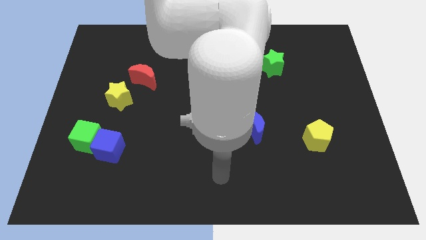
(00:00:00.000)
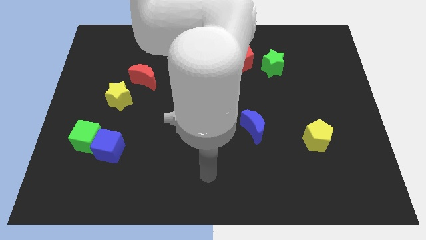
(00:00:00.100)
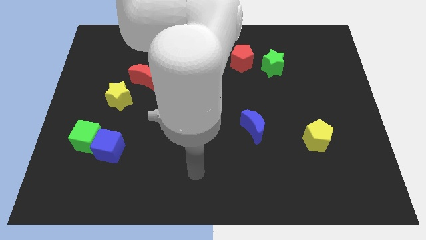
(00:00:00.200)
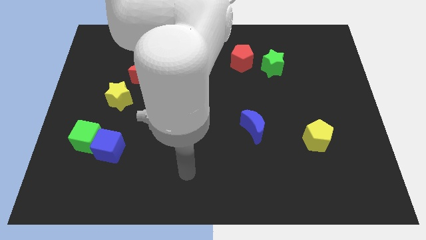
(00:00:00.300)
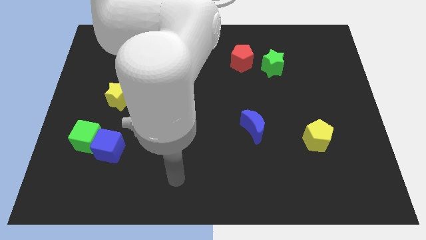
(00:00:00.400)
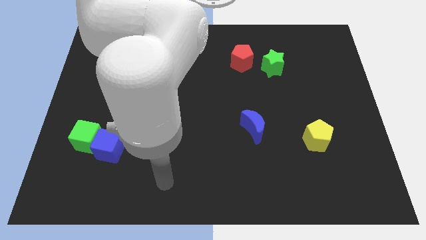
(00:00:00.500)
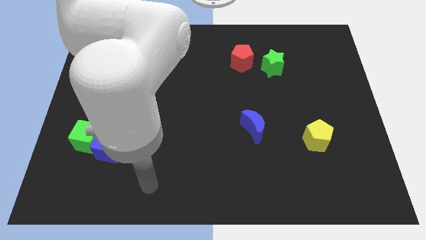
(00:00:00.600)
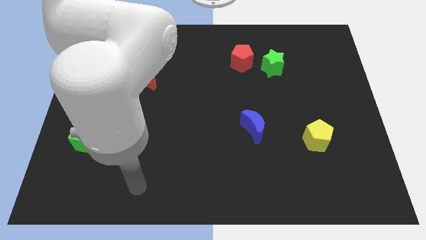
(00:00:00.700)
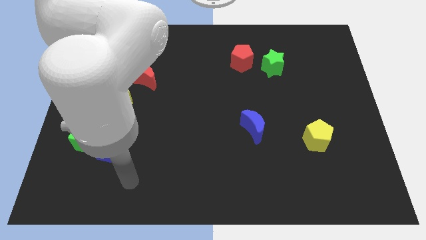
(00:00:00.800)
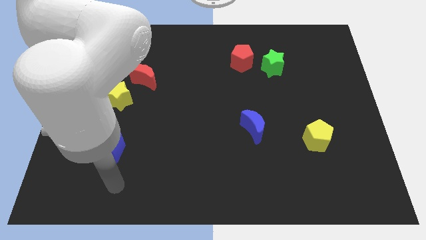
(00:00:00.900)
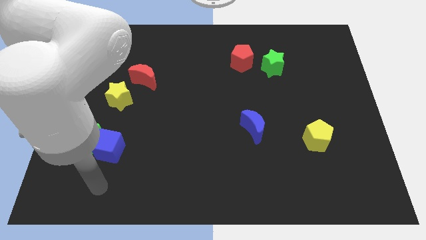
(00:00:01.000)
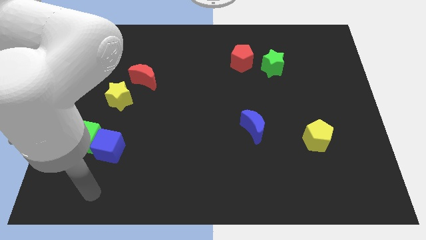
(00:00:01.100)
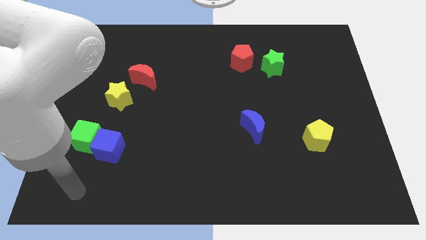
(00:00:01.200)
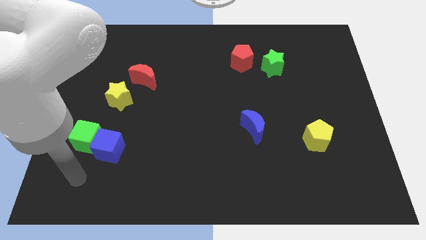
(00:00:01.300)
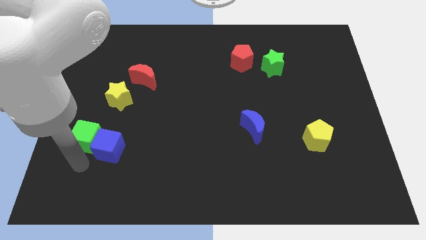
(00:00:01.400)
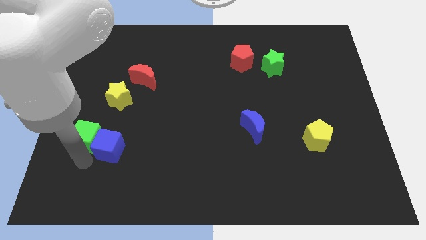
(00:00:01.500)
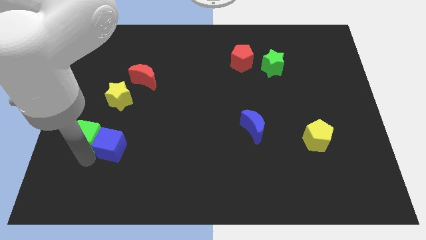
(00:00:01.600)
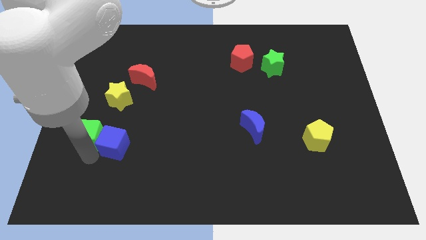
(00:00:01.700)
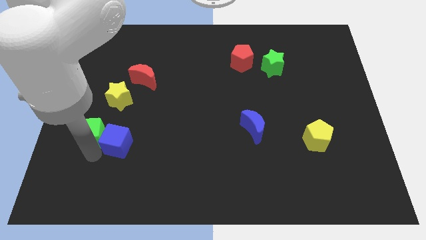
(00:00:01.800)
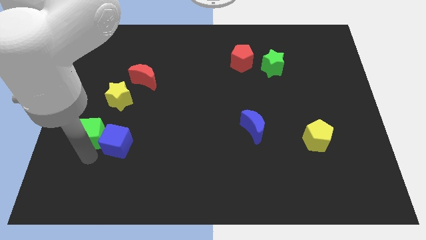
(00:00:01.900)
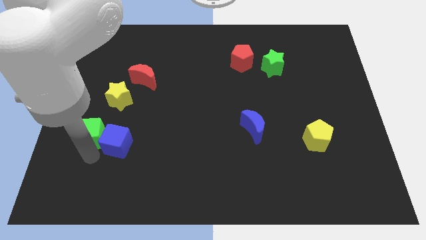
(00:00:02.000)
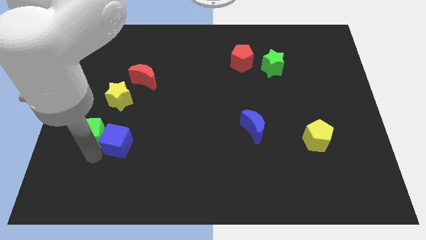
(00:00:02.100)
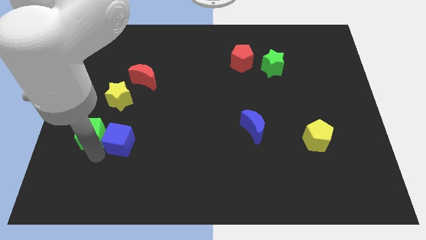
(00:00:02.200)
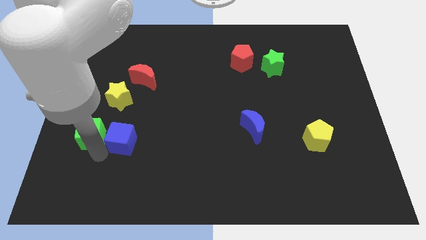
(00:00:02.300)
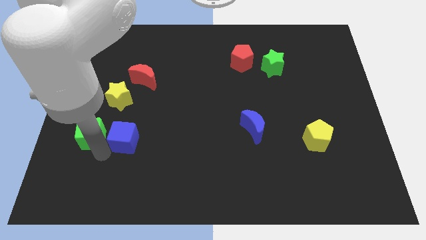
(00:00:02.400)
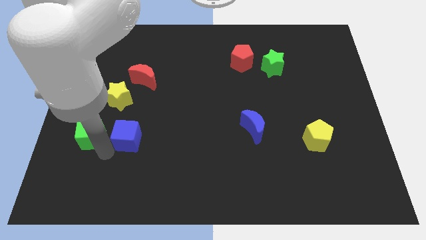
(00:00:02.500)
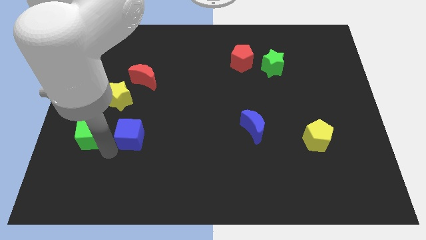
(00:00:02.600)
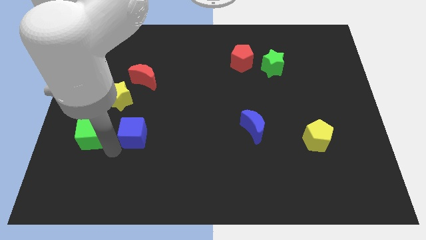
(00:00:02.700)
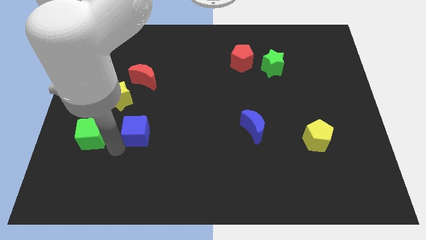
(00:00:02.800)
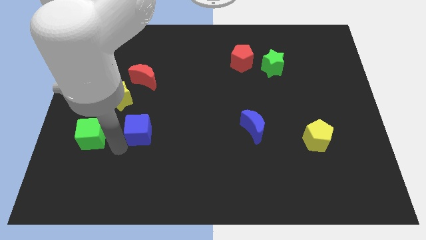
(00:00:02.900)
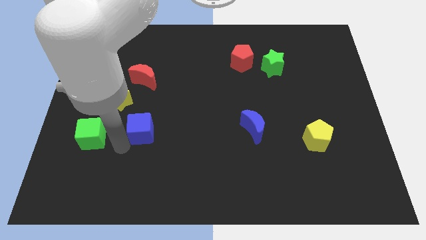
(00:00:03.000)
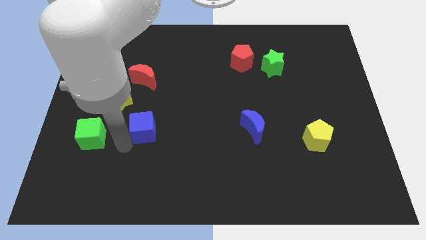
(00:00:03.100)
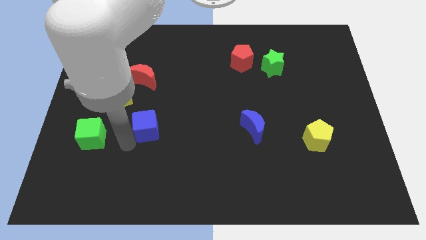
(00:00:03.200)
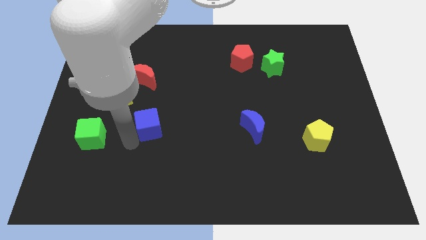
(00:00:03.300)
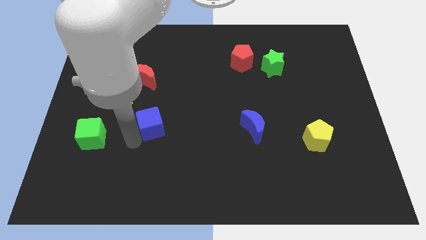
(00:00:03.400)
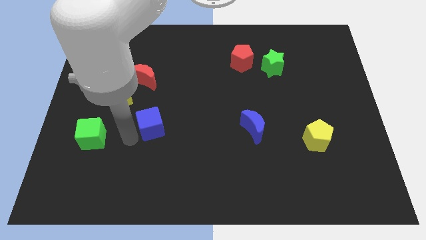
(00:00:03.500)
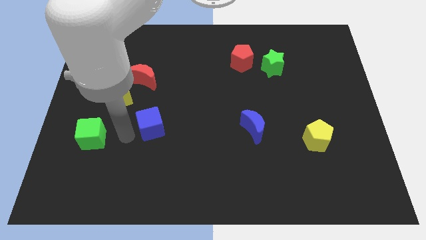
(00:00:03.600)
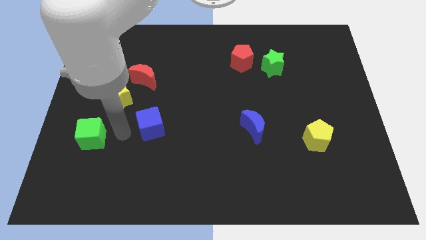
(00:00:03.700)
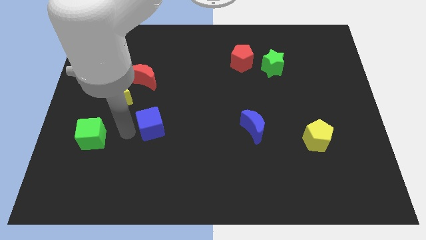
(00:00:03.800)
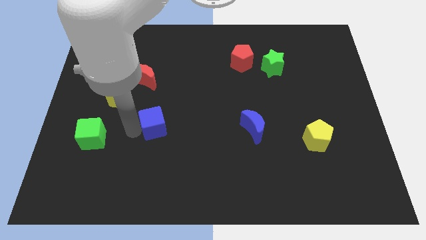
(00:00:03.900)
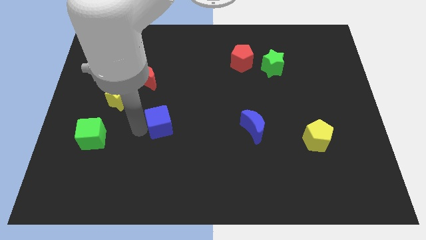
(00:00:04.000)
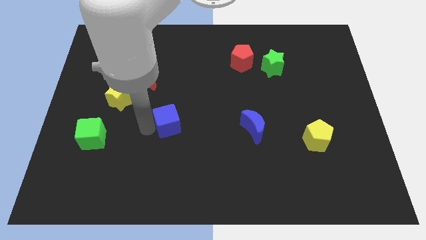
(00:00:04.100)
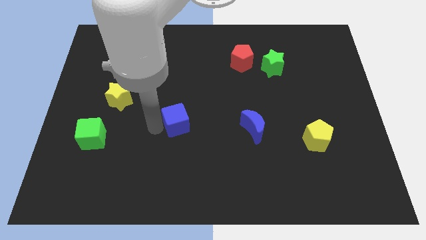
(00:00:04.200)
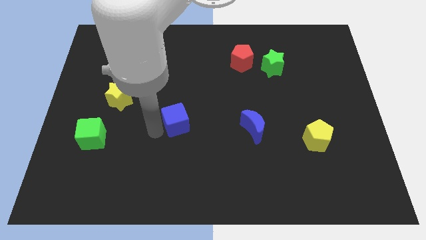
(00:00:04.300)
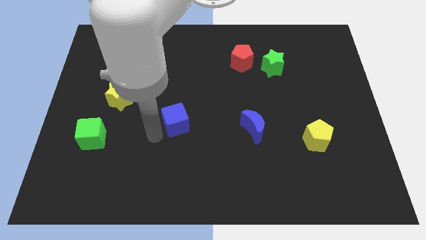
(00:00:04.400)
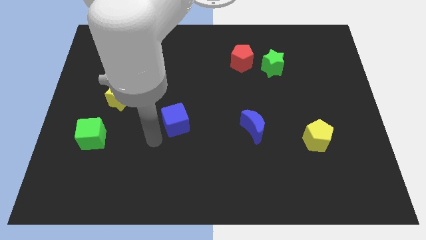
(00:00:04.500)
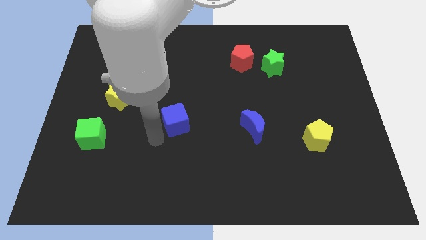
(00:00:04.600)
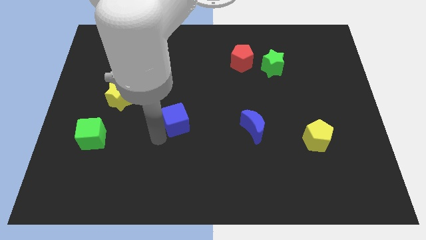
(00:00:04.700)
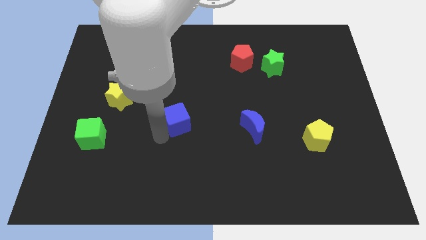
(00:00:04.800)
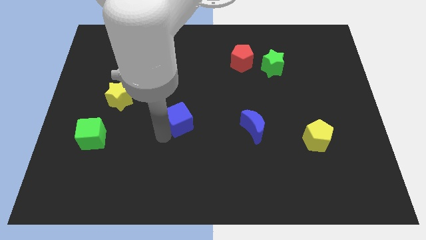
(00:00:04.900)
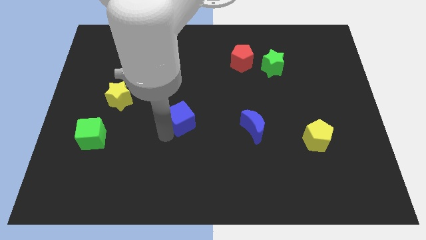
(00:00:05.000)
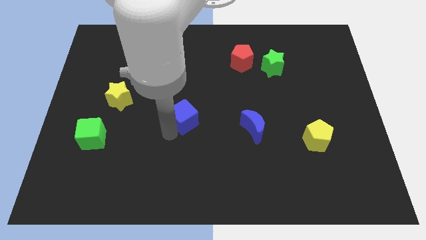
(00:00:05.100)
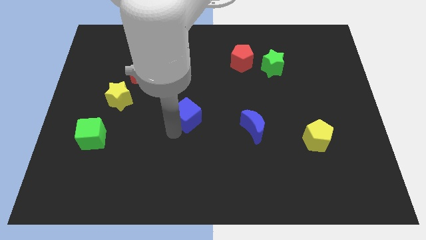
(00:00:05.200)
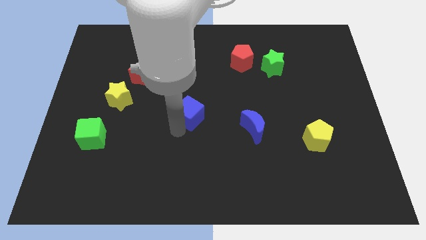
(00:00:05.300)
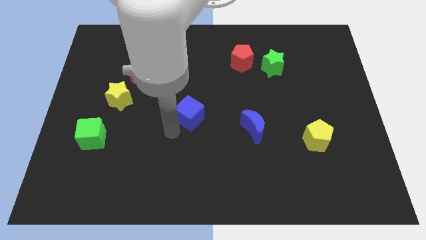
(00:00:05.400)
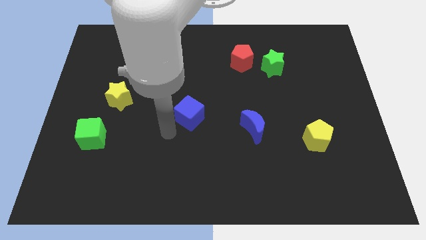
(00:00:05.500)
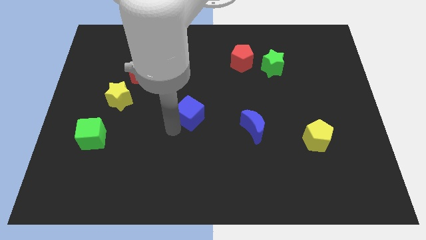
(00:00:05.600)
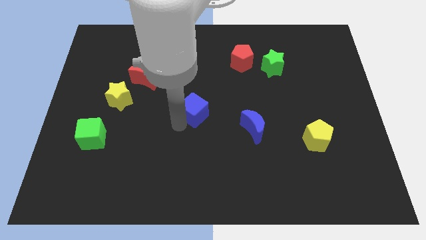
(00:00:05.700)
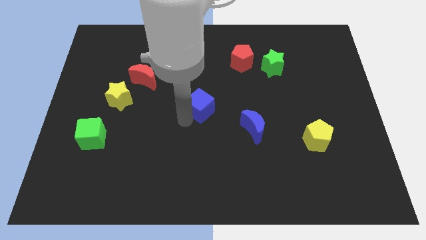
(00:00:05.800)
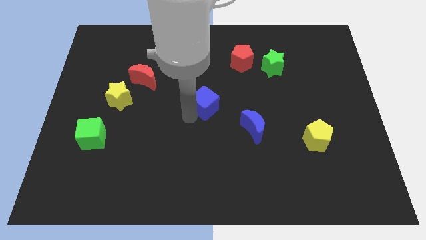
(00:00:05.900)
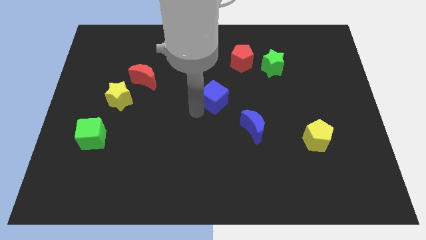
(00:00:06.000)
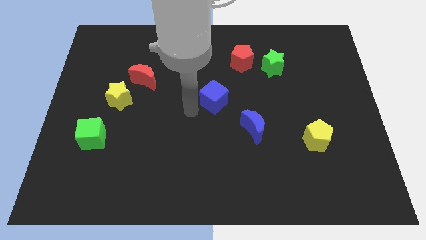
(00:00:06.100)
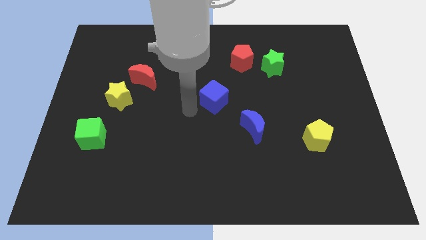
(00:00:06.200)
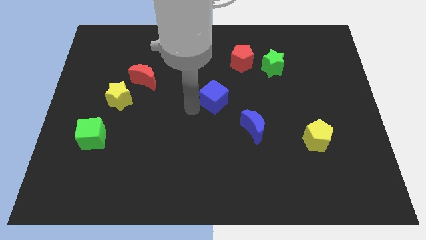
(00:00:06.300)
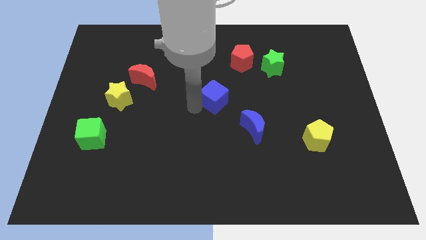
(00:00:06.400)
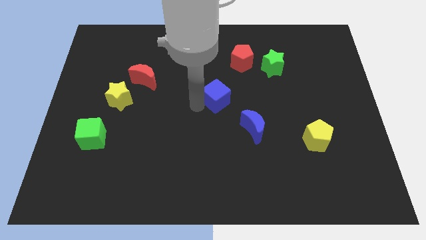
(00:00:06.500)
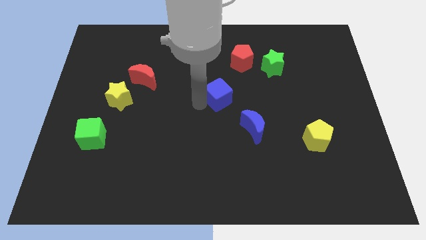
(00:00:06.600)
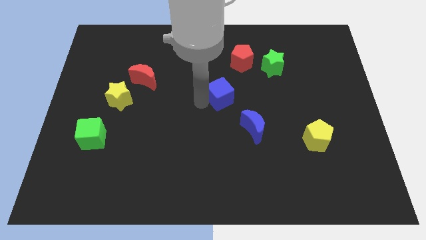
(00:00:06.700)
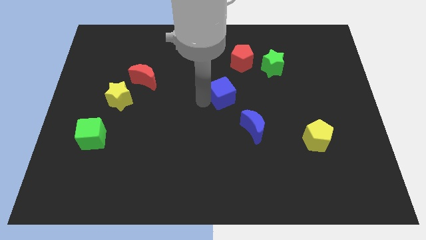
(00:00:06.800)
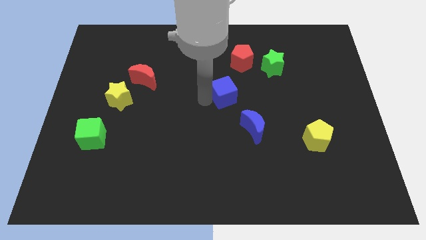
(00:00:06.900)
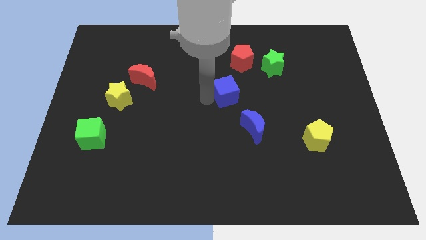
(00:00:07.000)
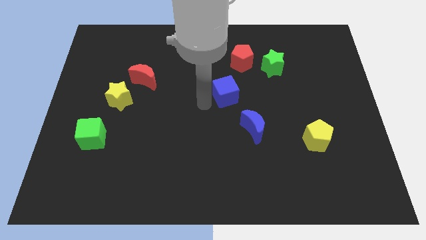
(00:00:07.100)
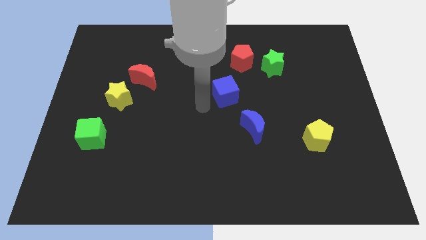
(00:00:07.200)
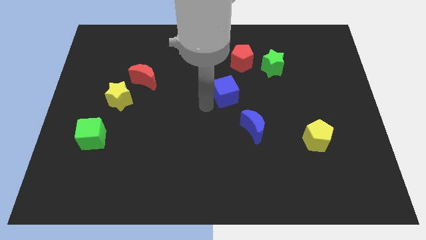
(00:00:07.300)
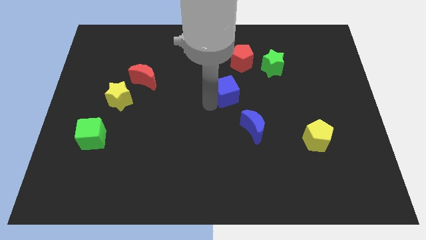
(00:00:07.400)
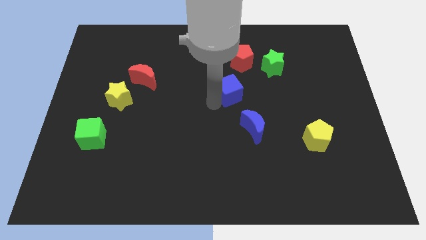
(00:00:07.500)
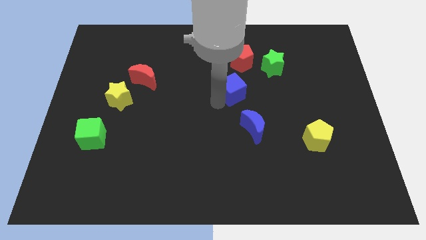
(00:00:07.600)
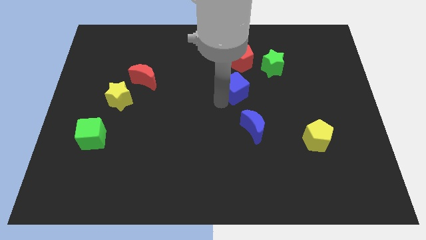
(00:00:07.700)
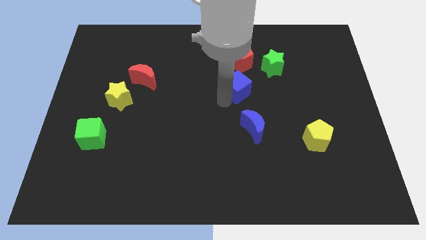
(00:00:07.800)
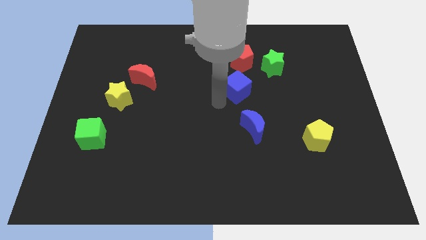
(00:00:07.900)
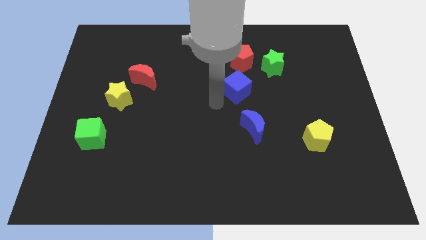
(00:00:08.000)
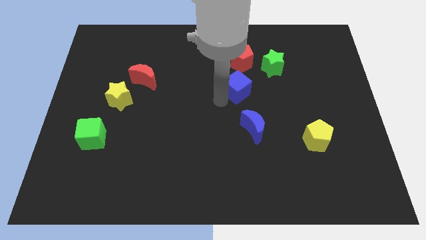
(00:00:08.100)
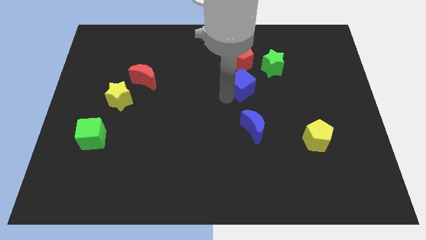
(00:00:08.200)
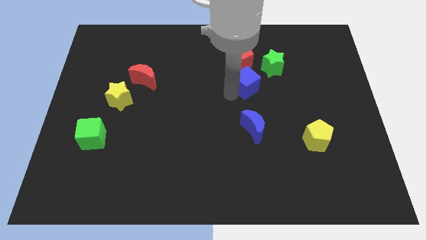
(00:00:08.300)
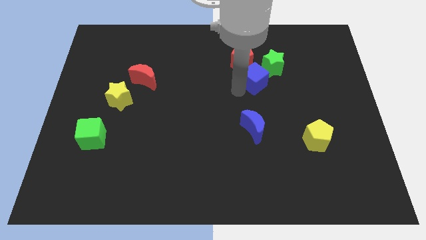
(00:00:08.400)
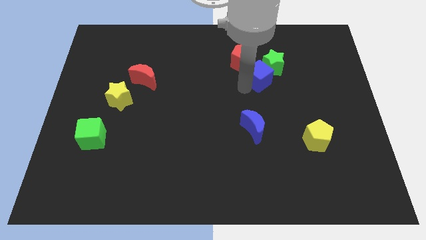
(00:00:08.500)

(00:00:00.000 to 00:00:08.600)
slide the blue cube towards the green star
